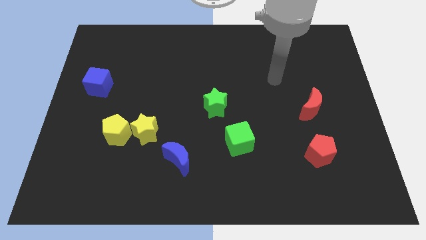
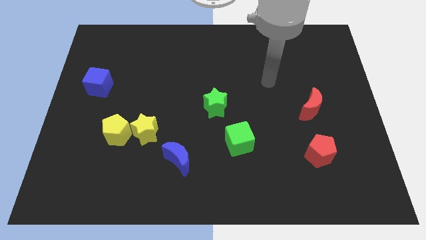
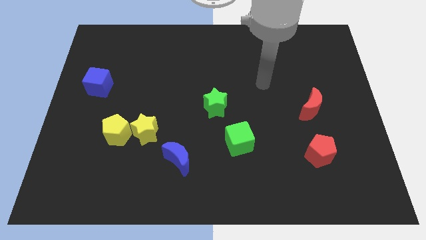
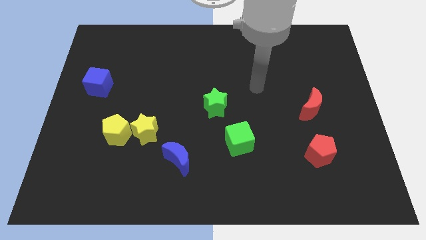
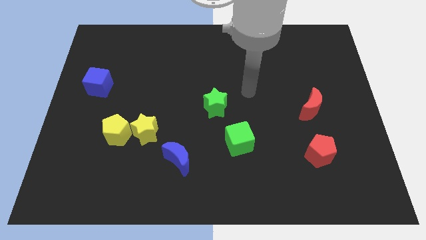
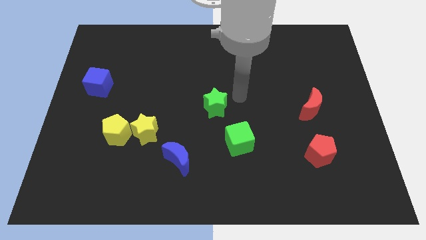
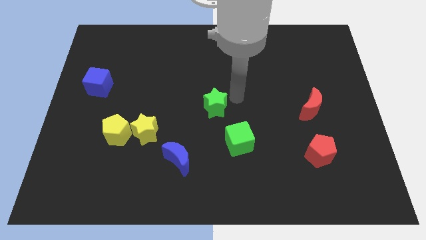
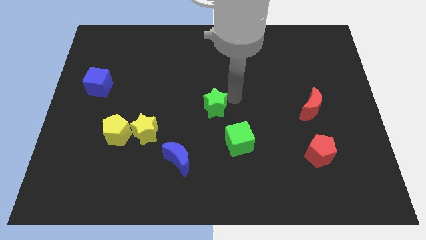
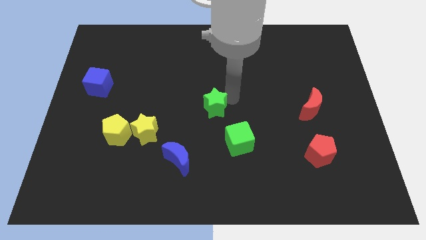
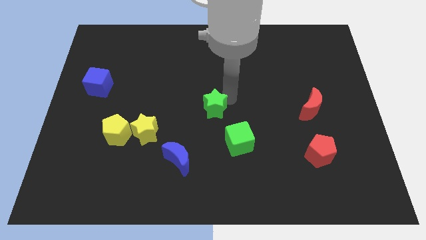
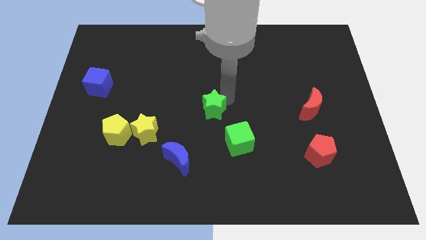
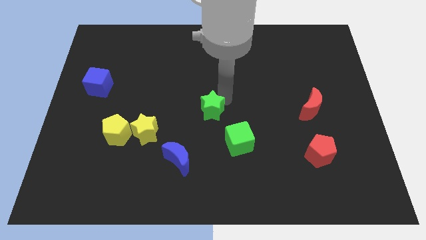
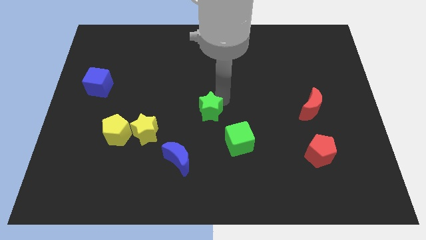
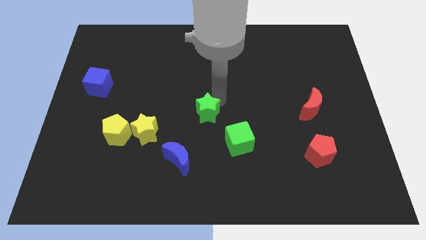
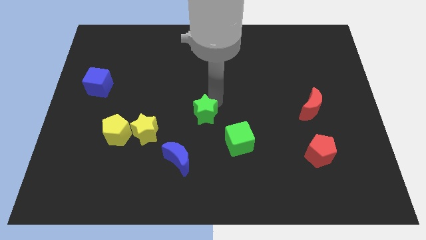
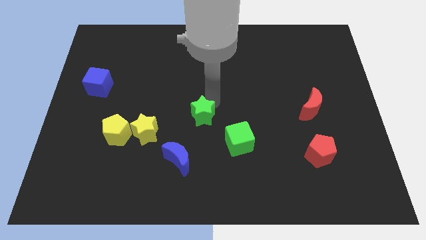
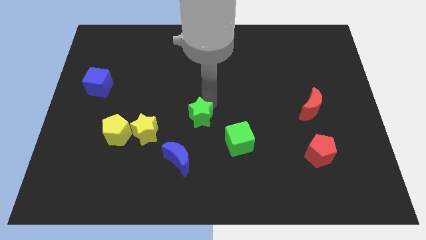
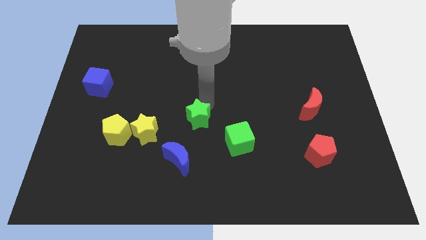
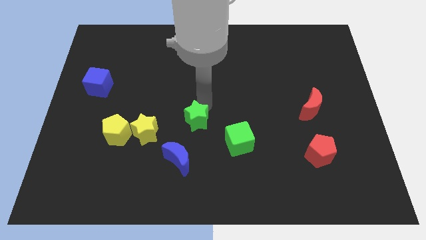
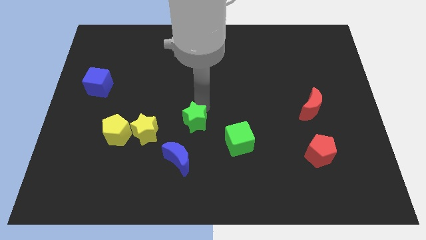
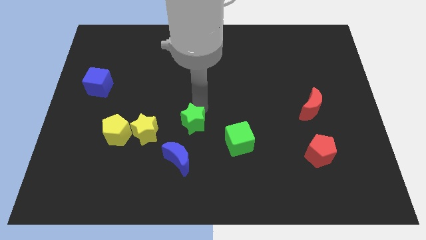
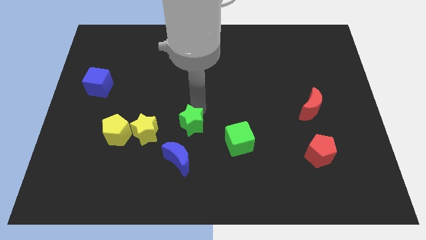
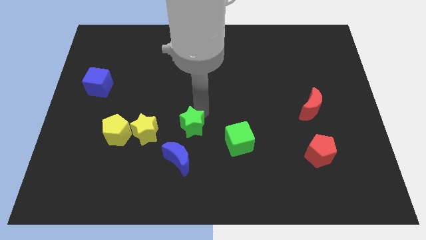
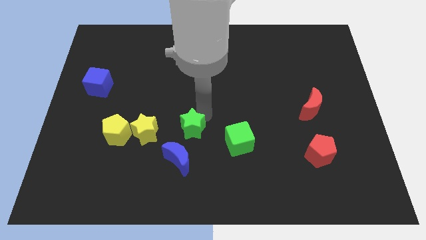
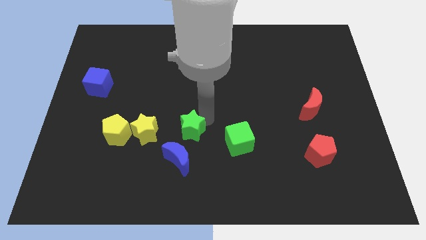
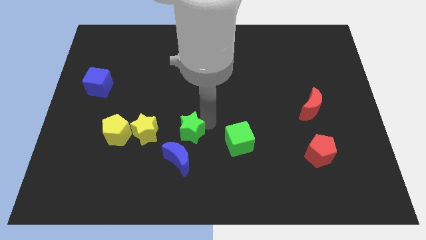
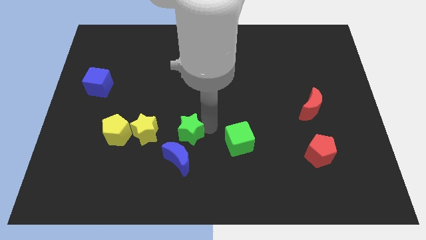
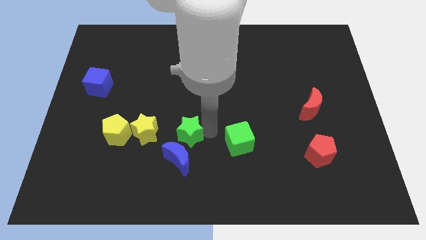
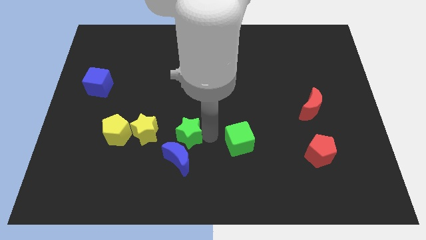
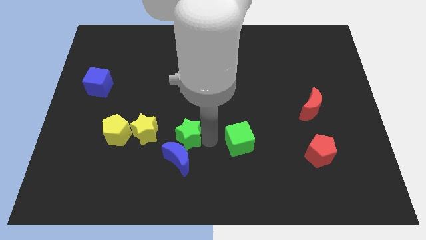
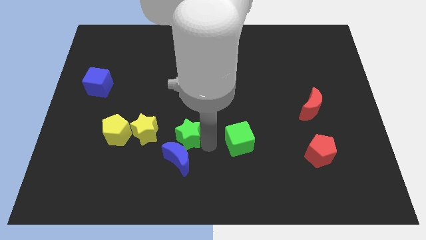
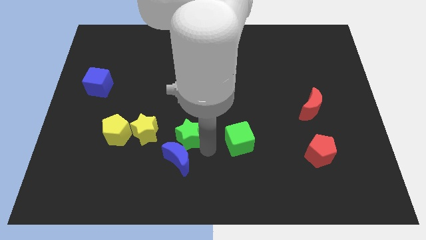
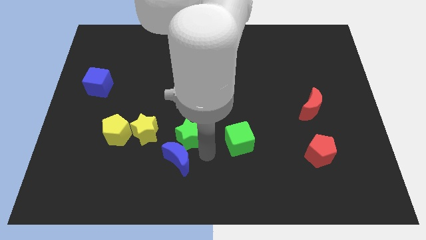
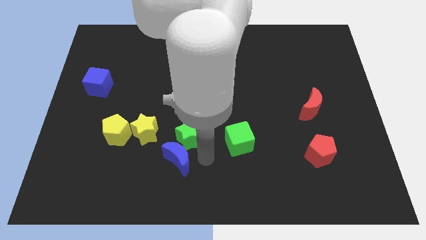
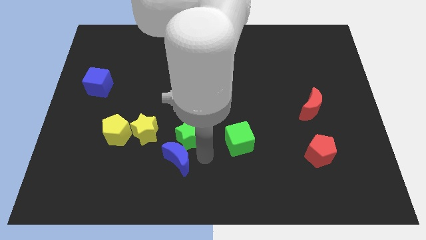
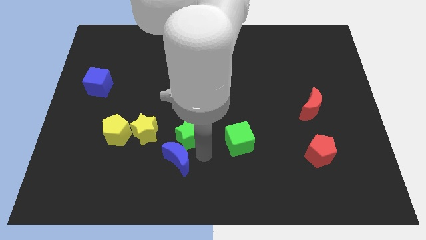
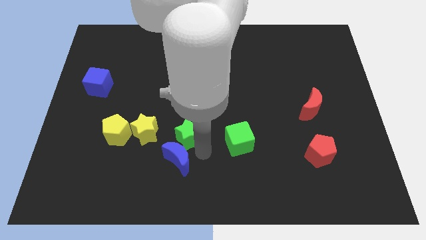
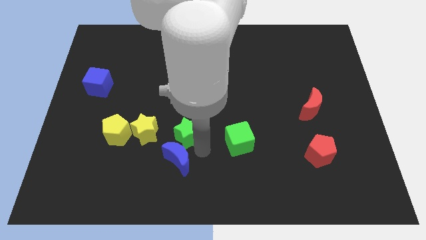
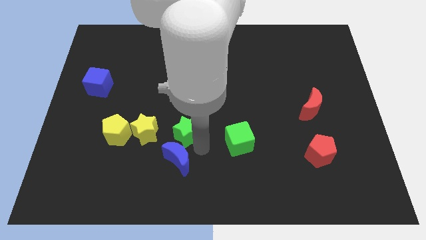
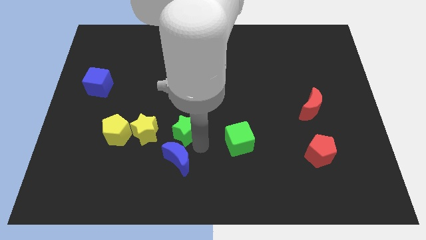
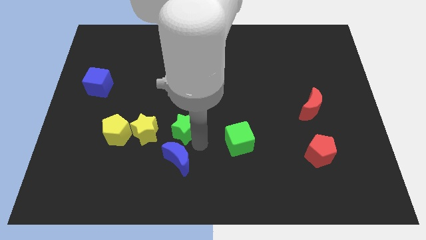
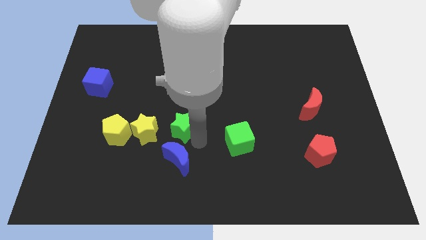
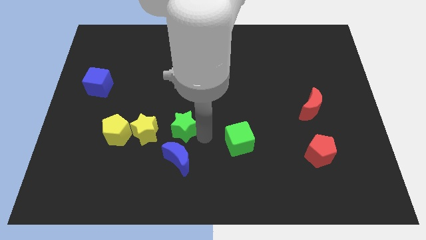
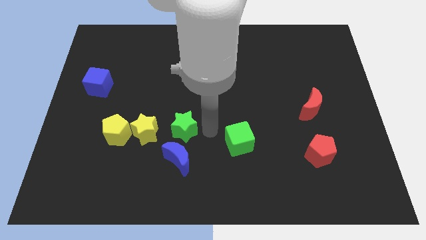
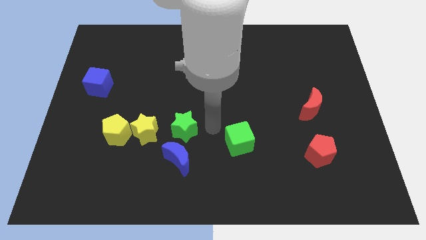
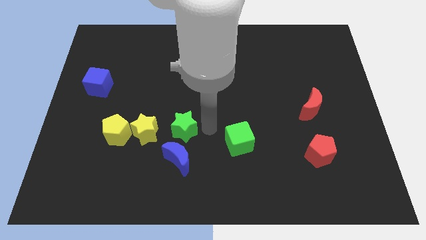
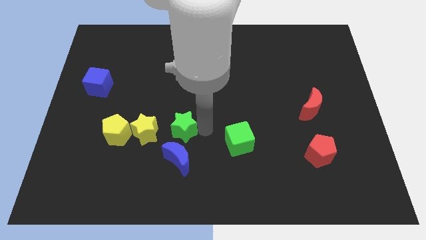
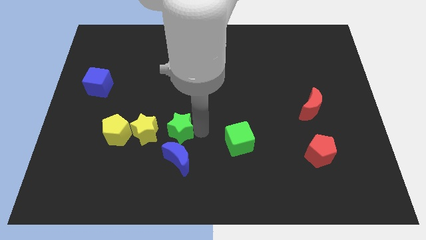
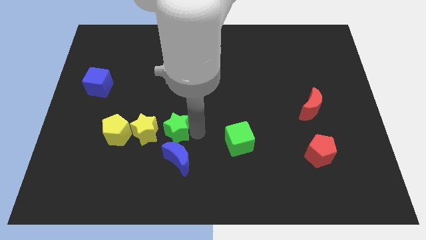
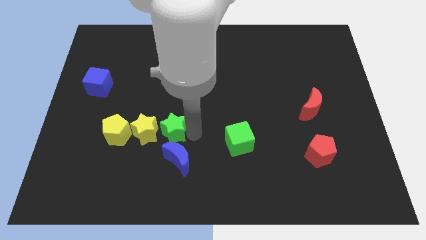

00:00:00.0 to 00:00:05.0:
slide the green star to the yellow star

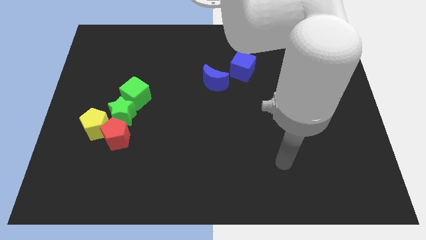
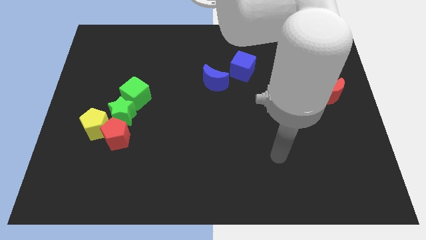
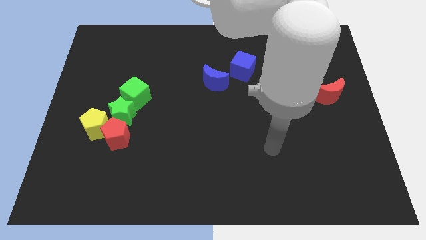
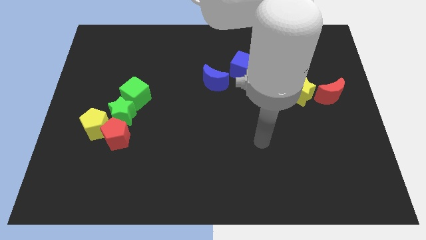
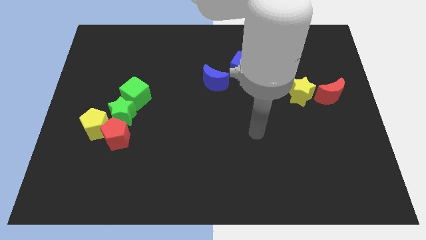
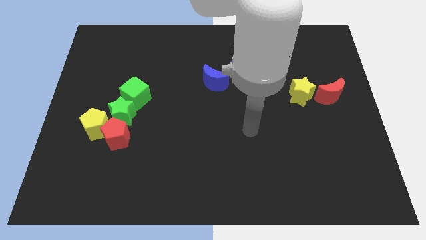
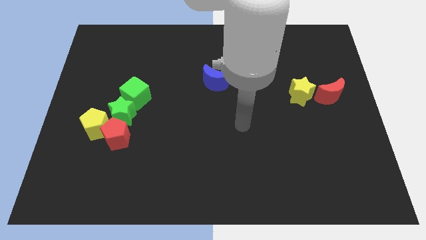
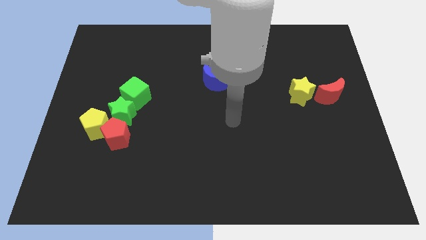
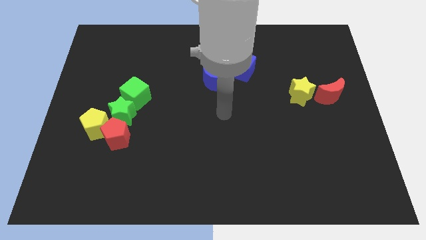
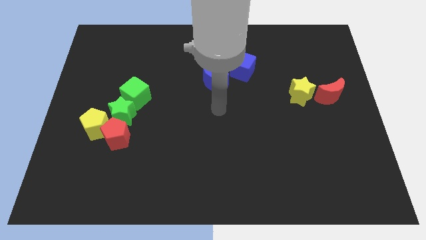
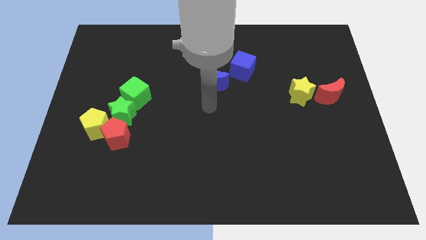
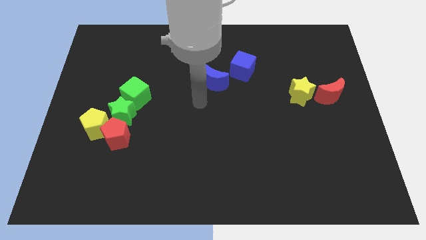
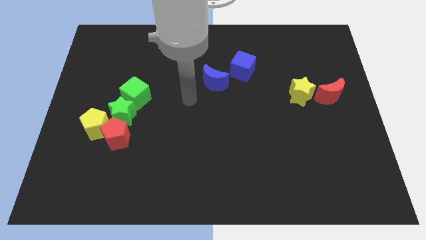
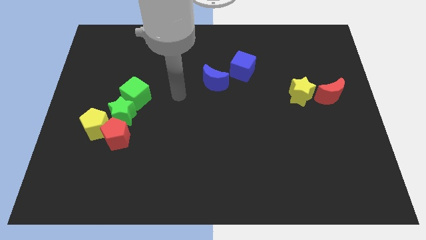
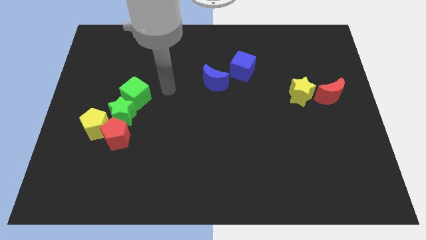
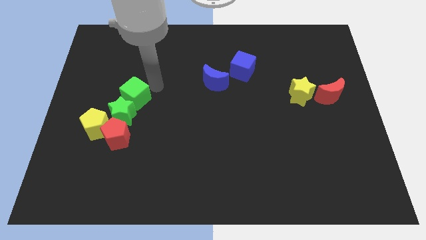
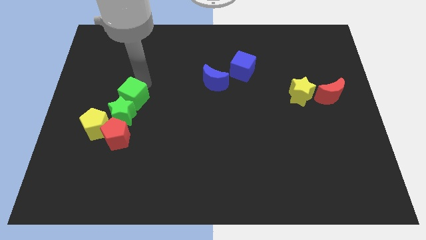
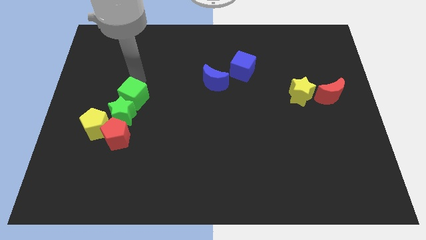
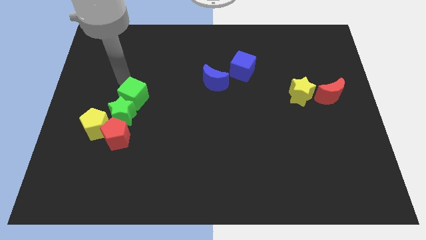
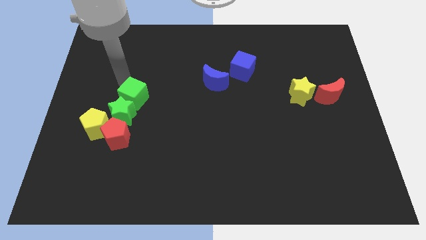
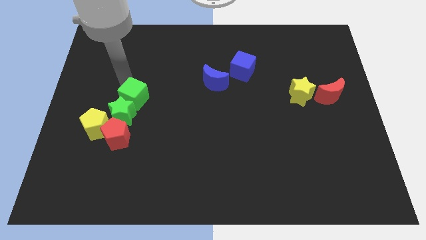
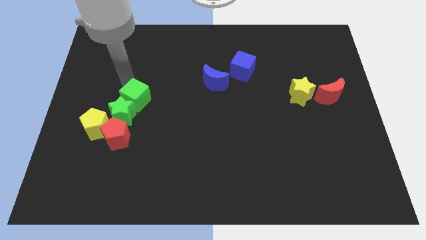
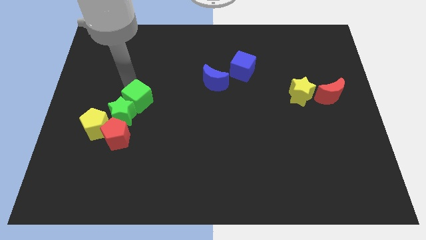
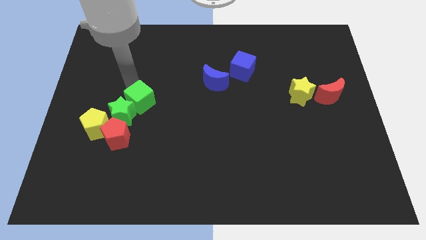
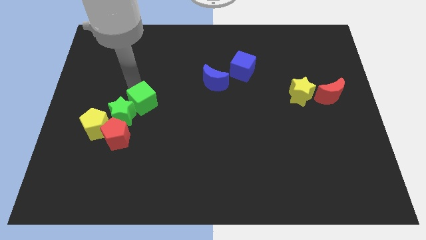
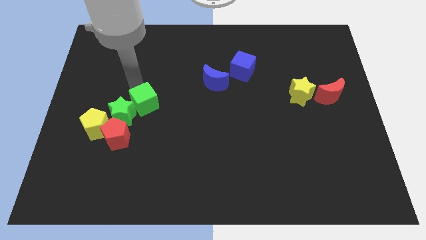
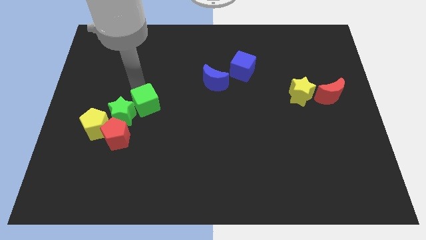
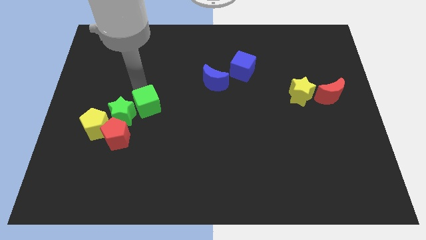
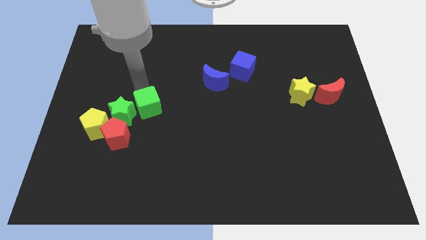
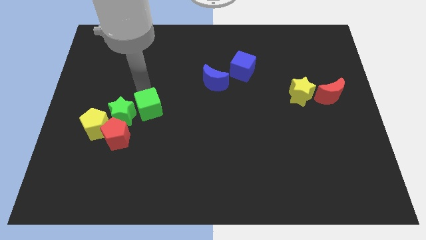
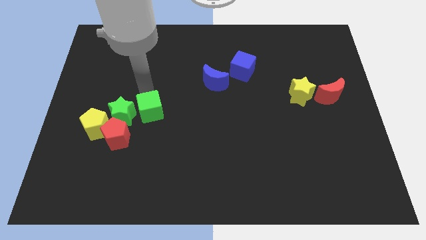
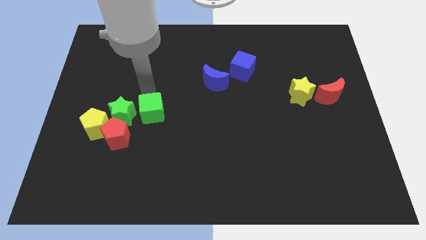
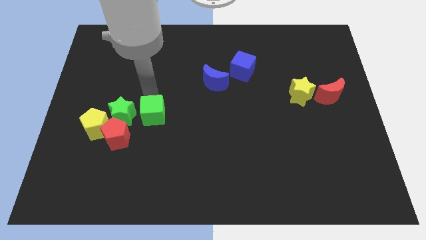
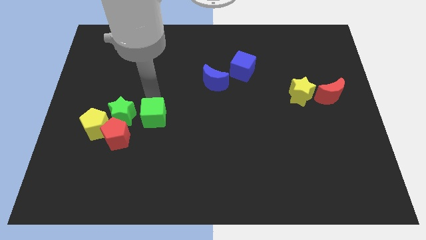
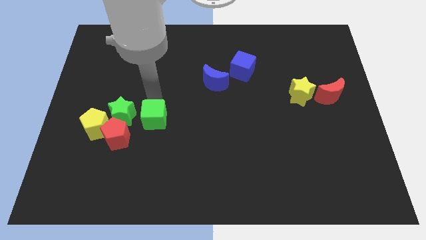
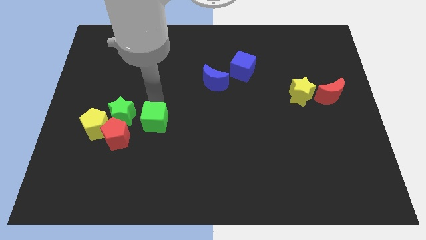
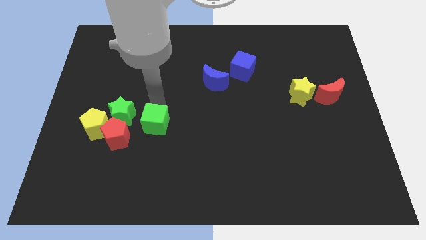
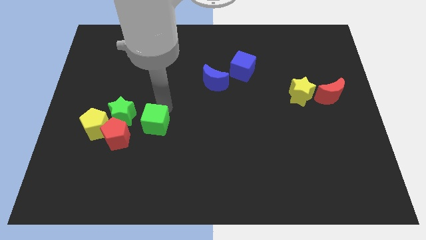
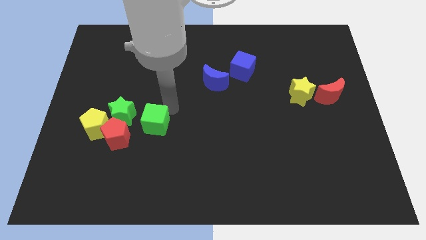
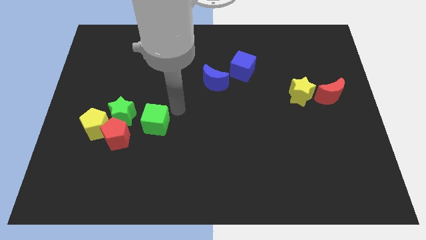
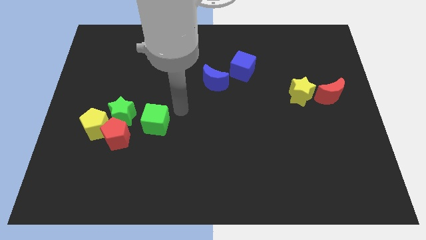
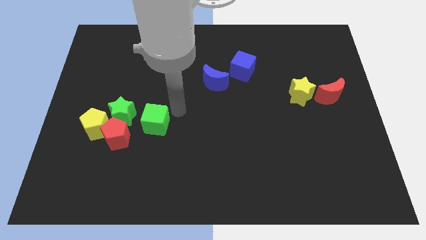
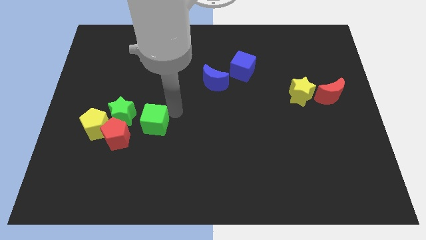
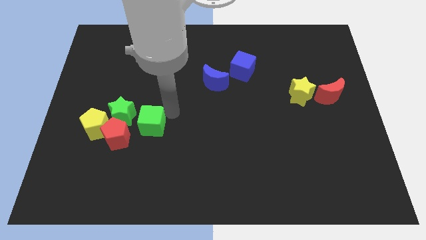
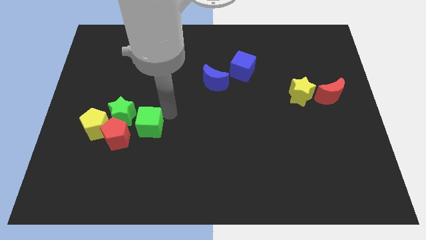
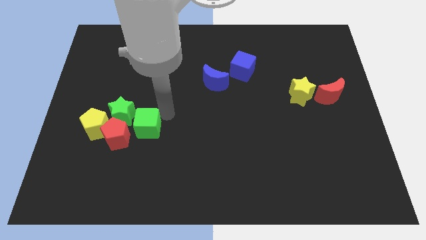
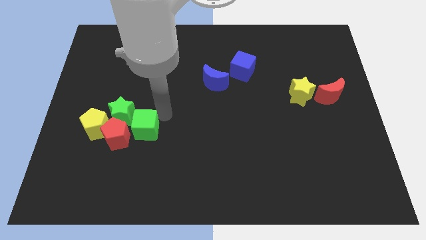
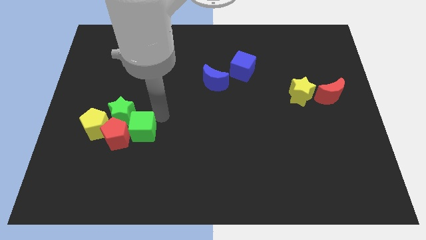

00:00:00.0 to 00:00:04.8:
push the green cube next to the red pentagon
